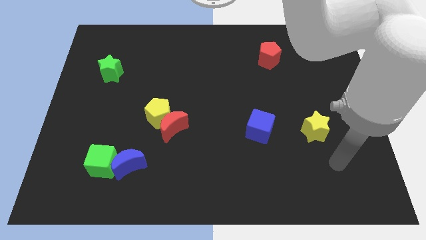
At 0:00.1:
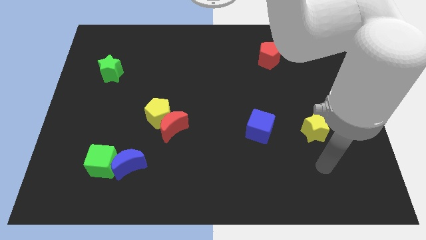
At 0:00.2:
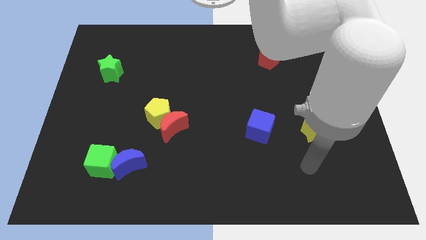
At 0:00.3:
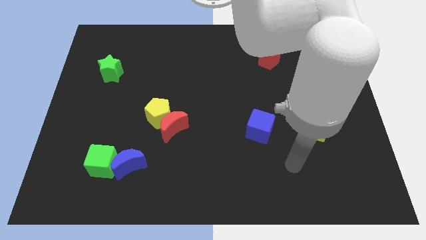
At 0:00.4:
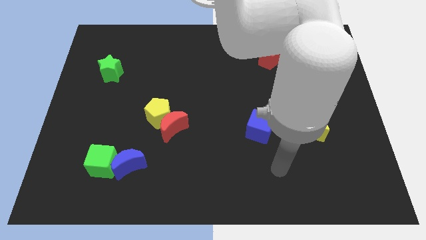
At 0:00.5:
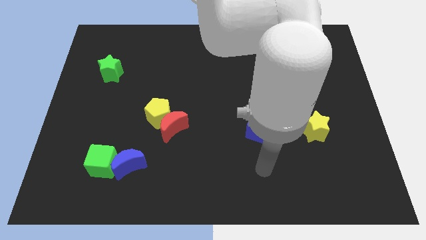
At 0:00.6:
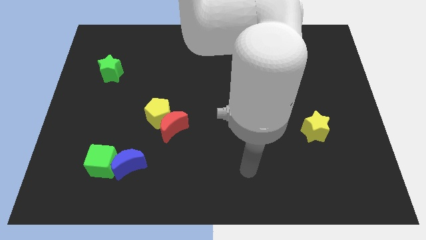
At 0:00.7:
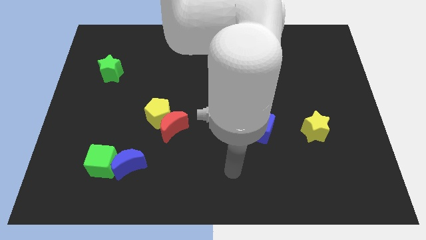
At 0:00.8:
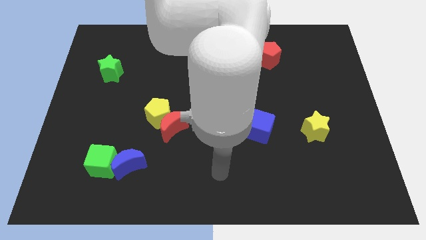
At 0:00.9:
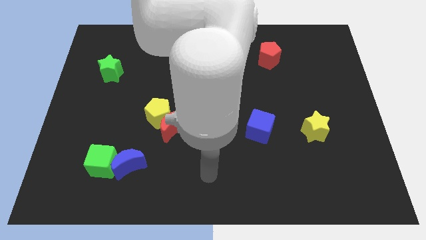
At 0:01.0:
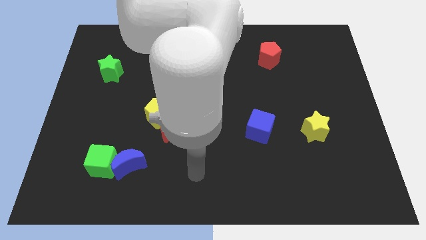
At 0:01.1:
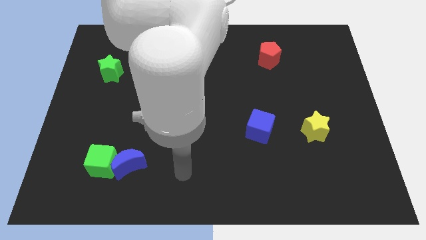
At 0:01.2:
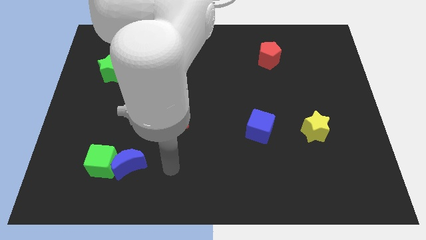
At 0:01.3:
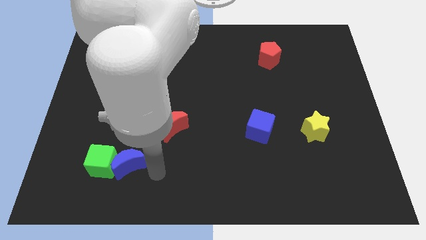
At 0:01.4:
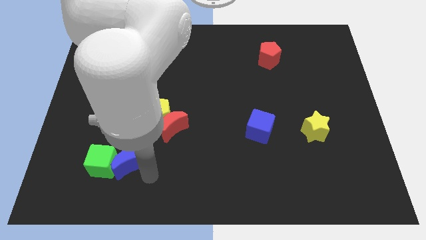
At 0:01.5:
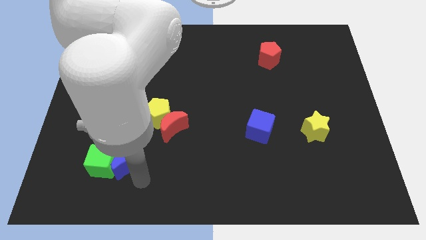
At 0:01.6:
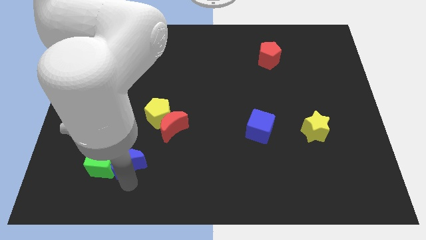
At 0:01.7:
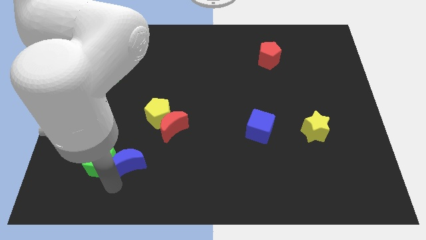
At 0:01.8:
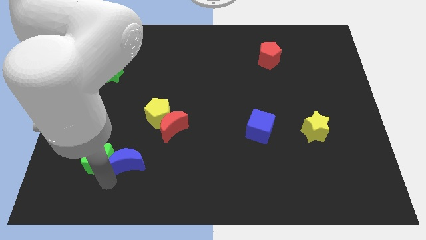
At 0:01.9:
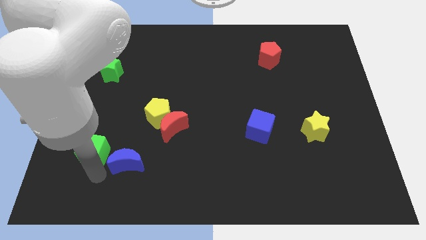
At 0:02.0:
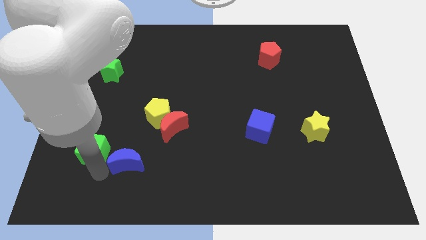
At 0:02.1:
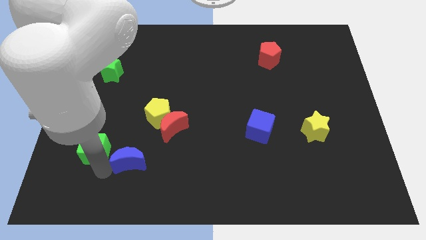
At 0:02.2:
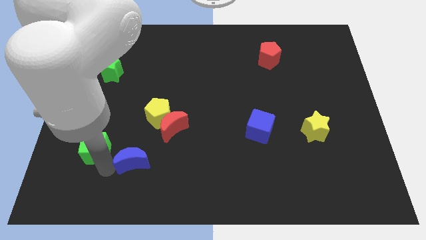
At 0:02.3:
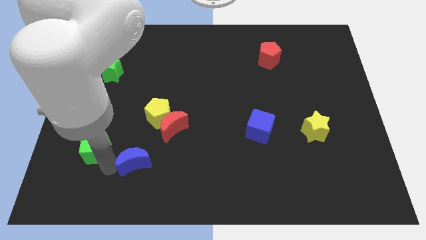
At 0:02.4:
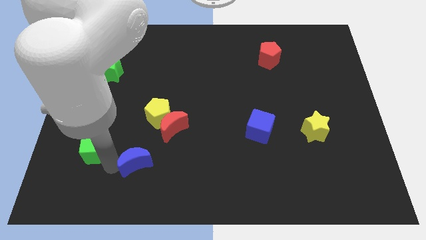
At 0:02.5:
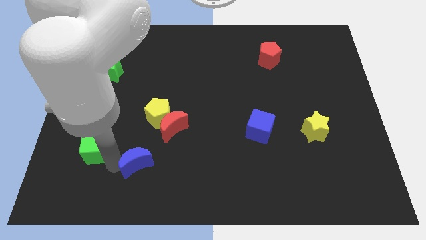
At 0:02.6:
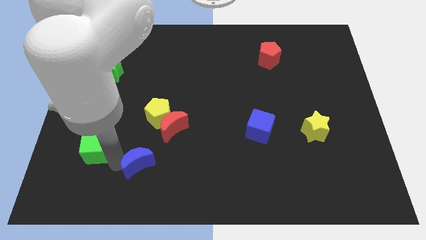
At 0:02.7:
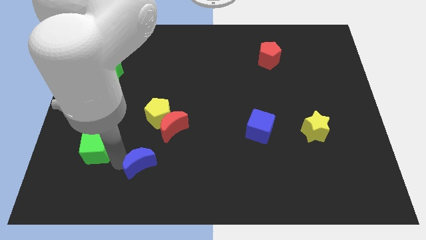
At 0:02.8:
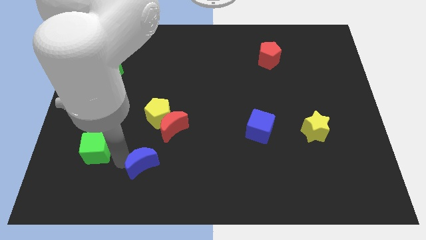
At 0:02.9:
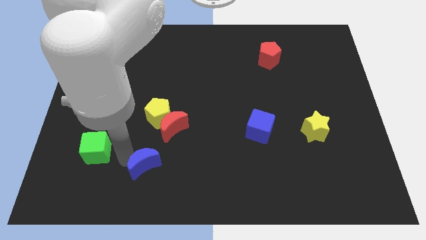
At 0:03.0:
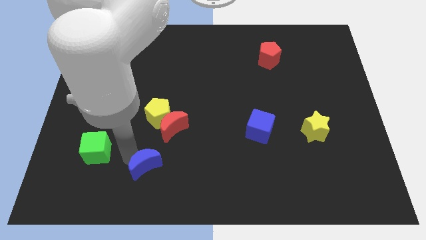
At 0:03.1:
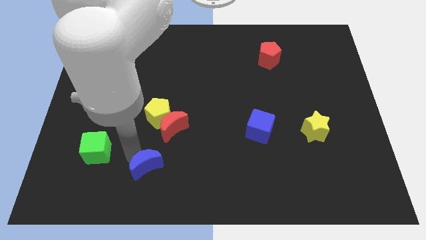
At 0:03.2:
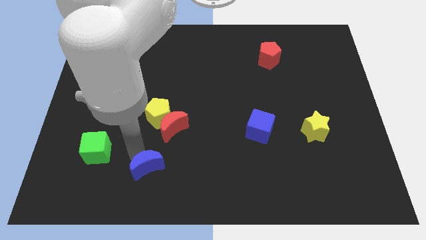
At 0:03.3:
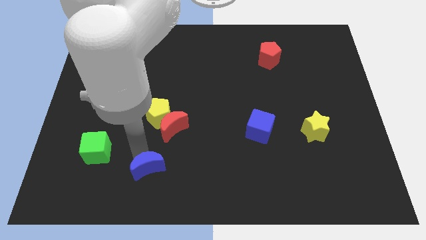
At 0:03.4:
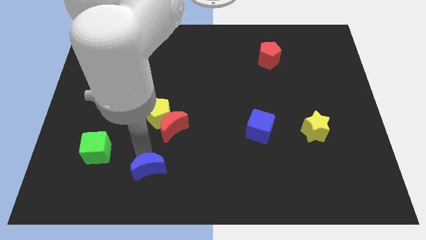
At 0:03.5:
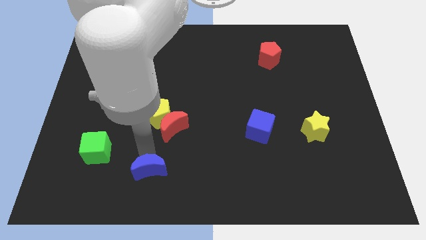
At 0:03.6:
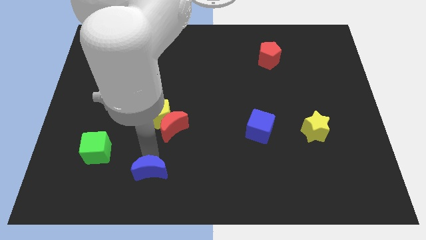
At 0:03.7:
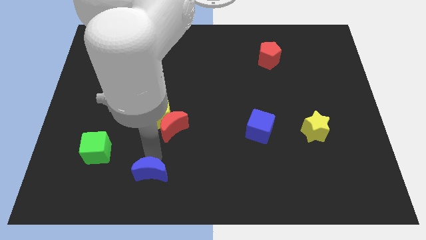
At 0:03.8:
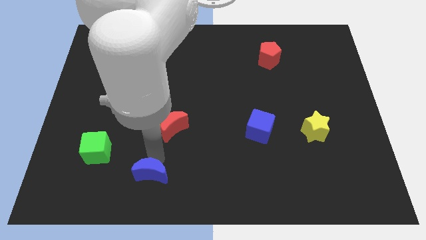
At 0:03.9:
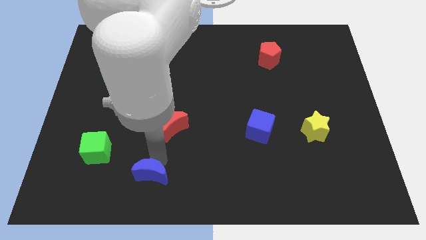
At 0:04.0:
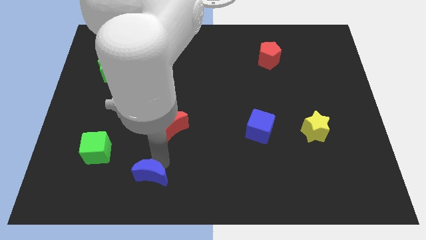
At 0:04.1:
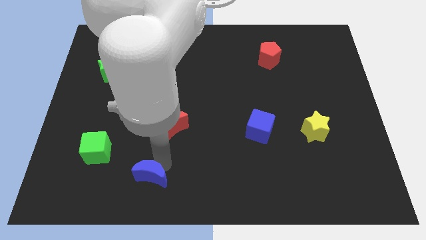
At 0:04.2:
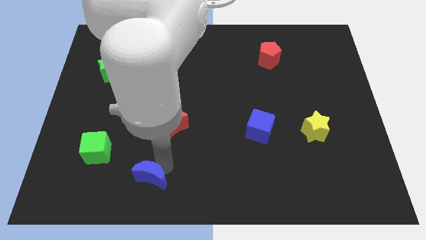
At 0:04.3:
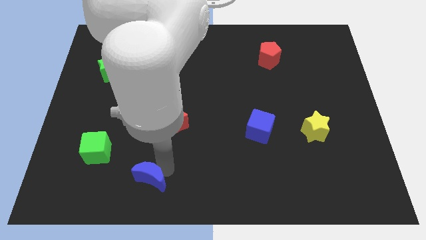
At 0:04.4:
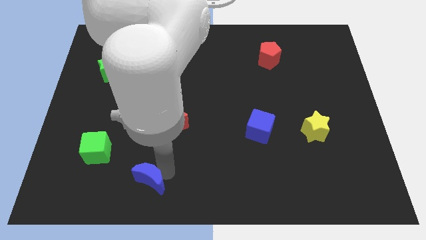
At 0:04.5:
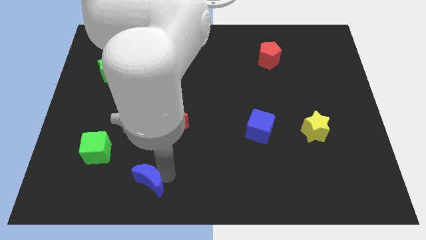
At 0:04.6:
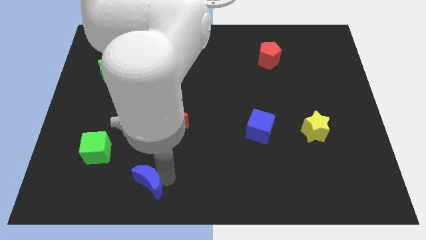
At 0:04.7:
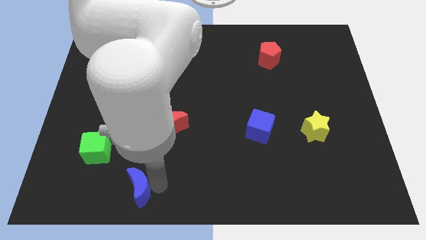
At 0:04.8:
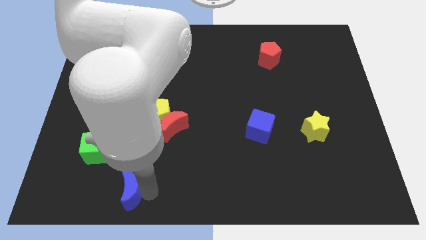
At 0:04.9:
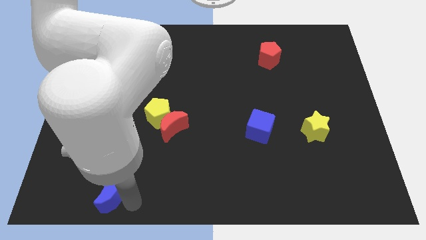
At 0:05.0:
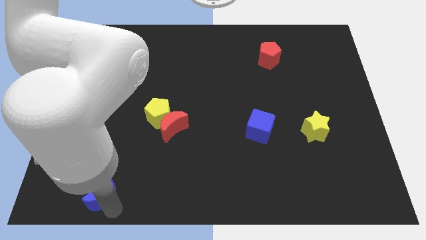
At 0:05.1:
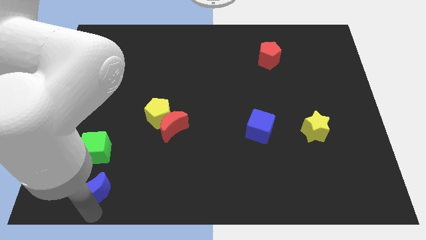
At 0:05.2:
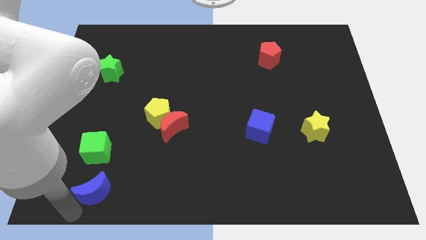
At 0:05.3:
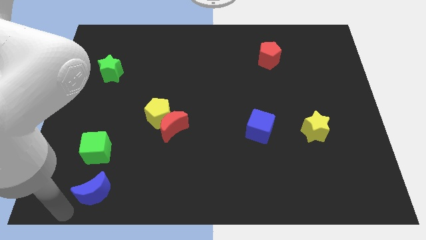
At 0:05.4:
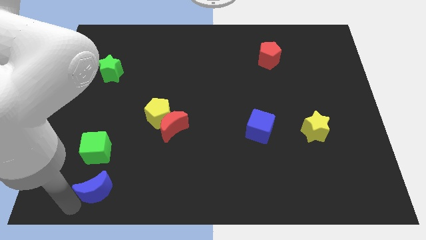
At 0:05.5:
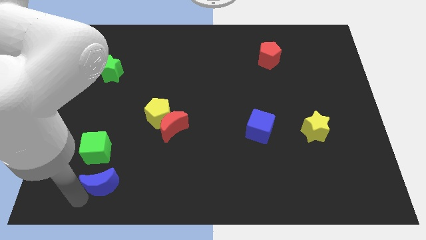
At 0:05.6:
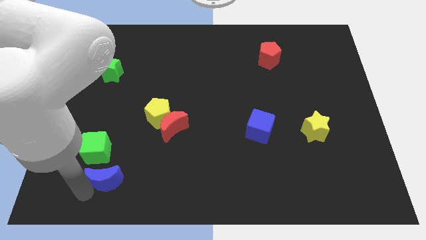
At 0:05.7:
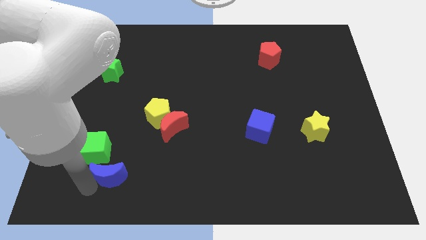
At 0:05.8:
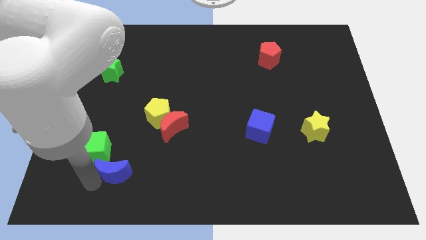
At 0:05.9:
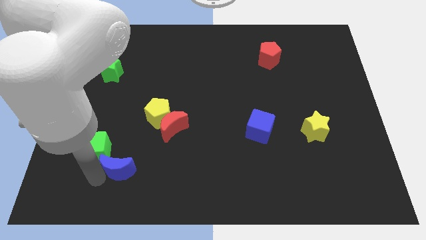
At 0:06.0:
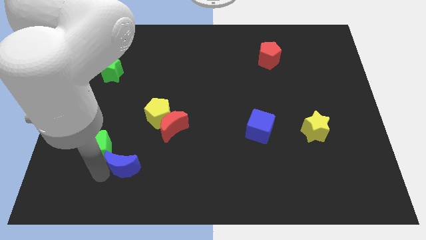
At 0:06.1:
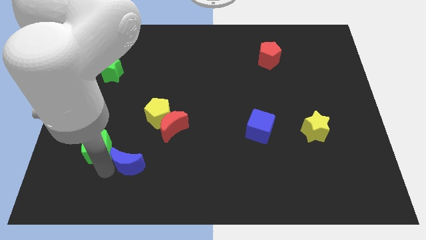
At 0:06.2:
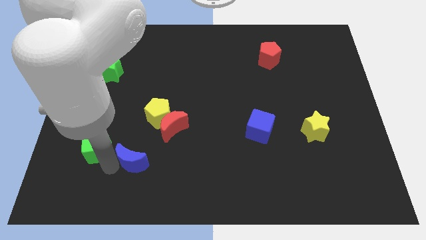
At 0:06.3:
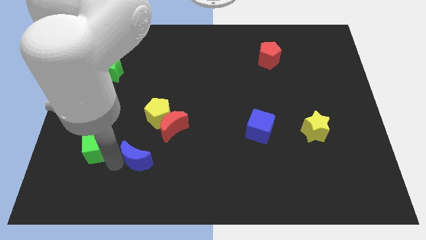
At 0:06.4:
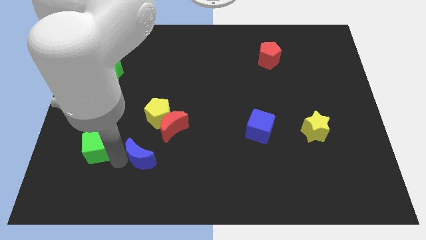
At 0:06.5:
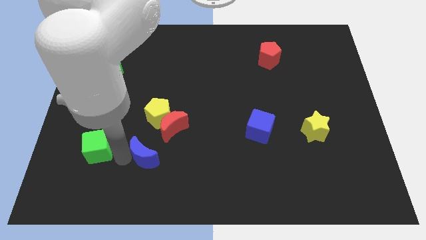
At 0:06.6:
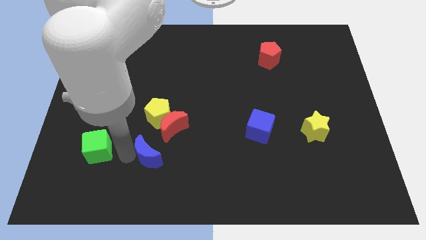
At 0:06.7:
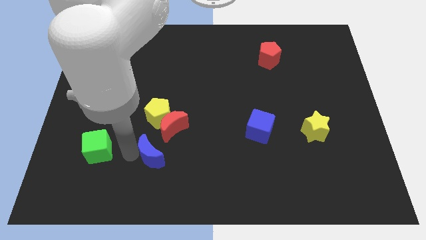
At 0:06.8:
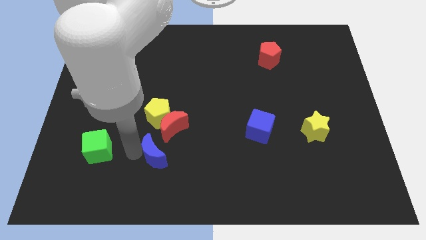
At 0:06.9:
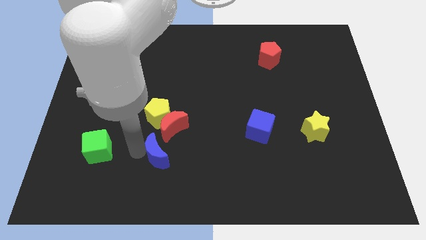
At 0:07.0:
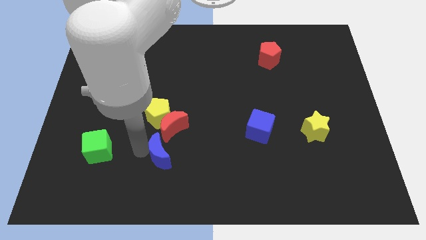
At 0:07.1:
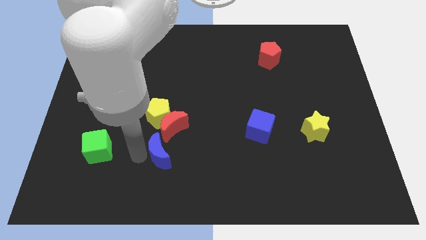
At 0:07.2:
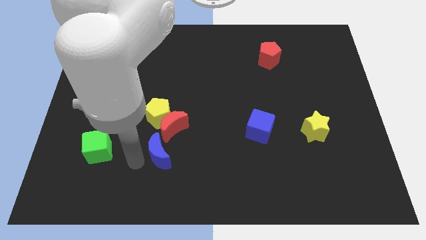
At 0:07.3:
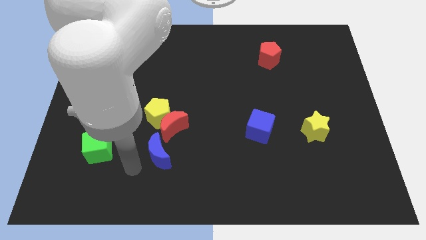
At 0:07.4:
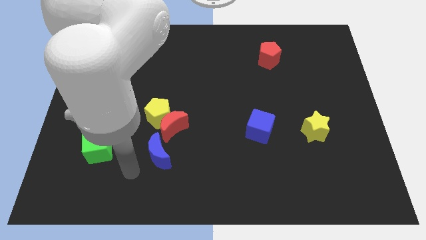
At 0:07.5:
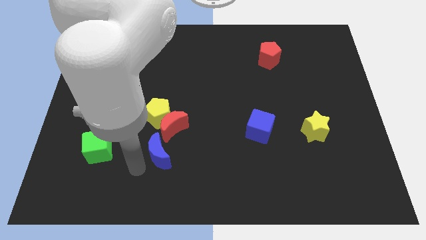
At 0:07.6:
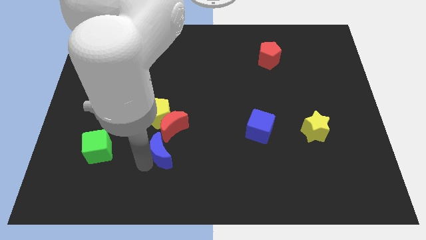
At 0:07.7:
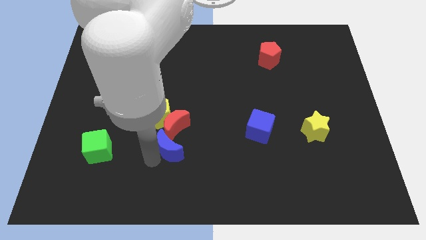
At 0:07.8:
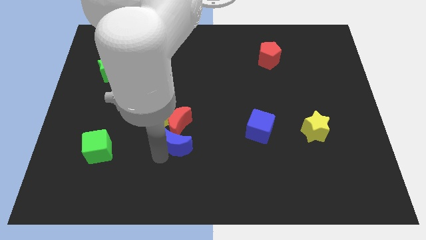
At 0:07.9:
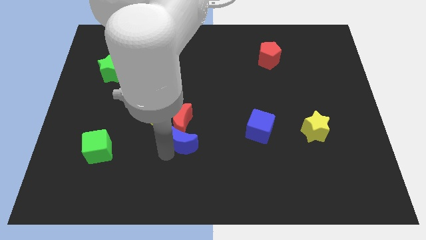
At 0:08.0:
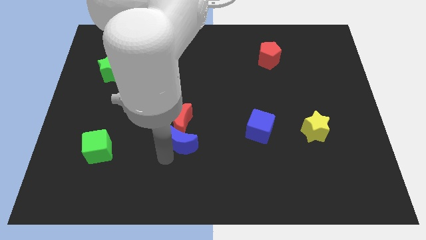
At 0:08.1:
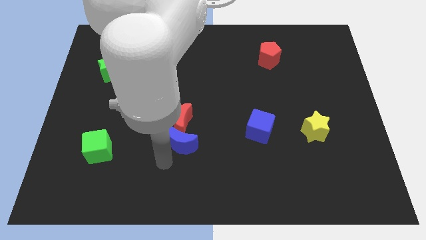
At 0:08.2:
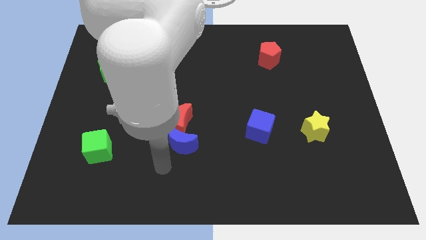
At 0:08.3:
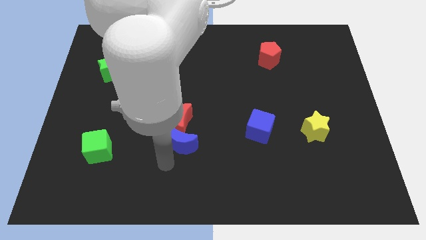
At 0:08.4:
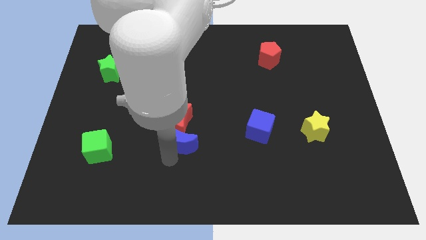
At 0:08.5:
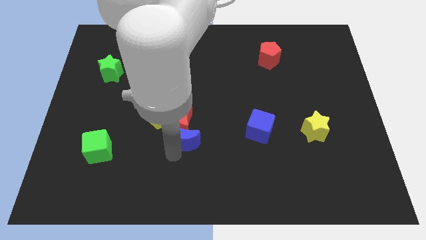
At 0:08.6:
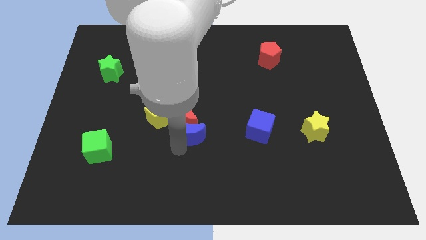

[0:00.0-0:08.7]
put the blue moon to the middle of the board
